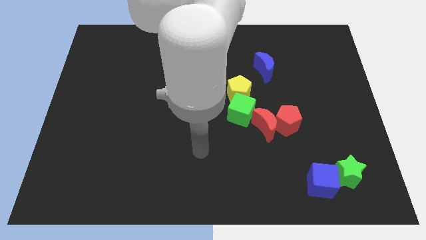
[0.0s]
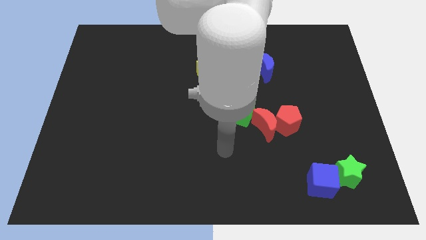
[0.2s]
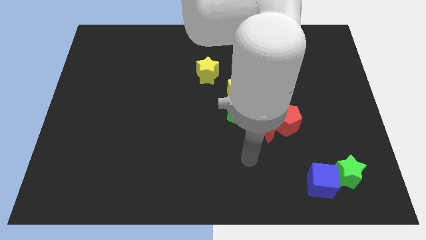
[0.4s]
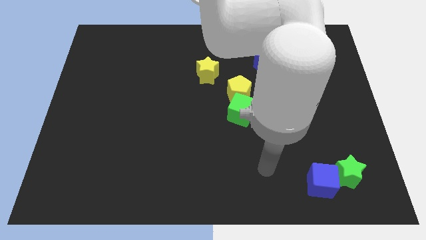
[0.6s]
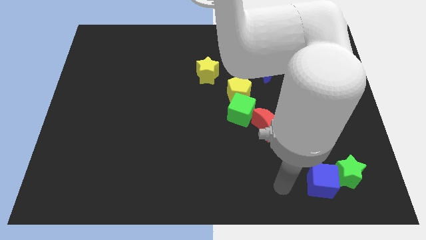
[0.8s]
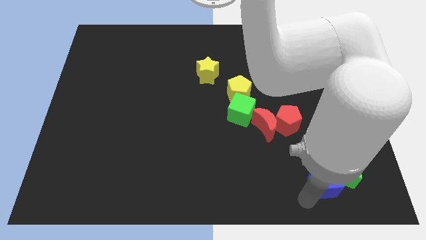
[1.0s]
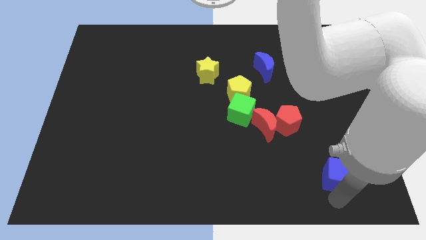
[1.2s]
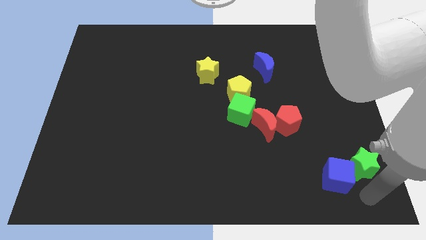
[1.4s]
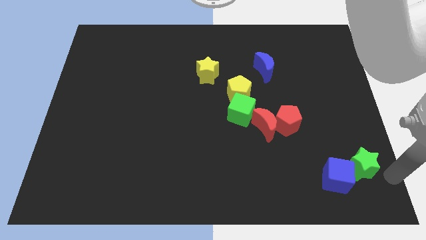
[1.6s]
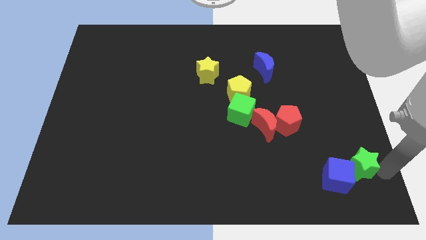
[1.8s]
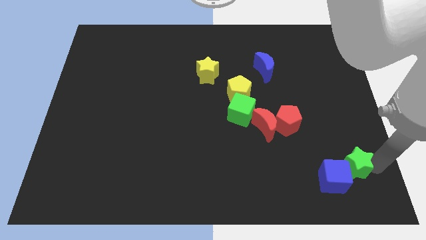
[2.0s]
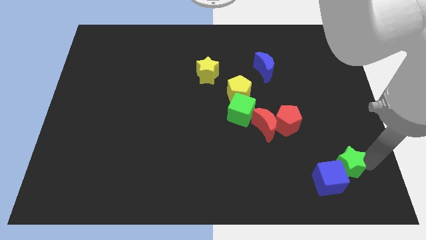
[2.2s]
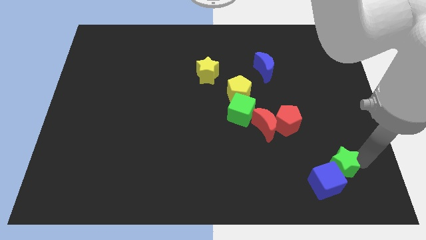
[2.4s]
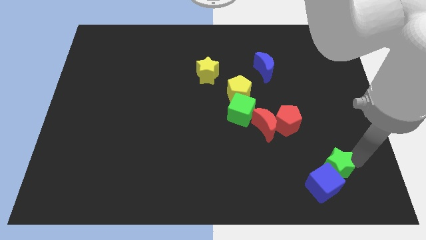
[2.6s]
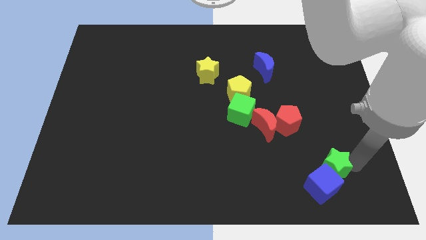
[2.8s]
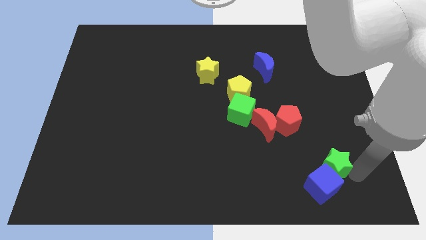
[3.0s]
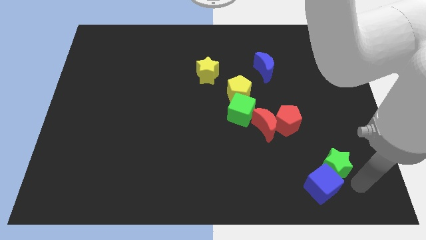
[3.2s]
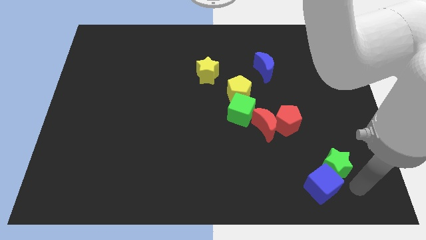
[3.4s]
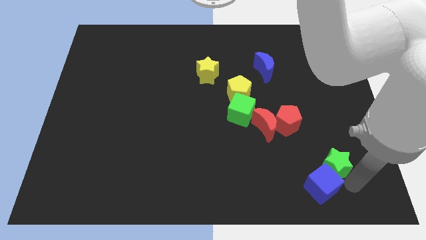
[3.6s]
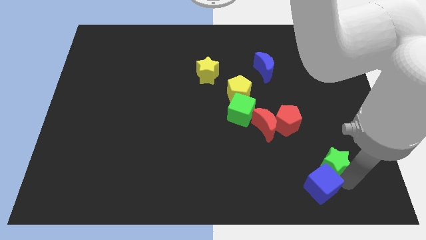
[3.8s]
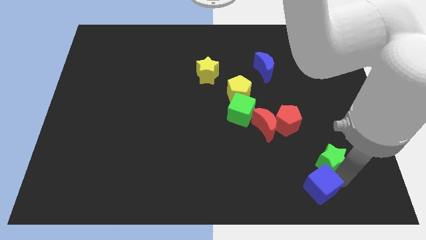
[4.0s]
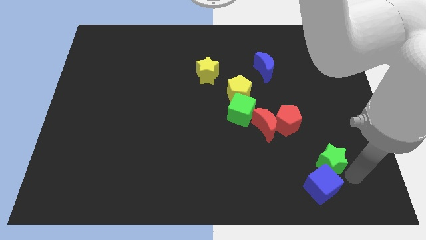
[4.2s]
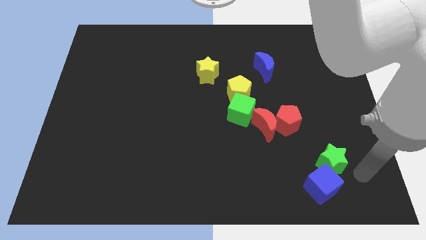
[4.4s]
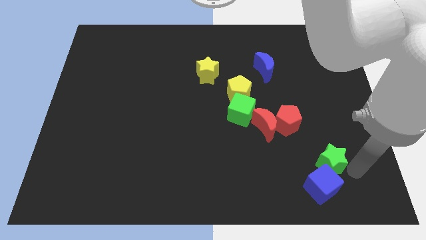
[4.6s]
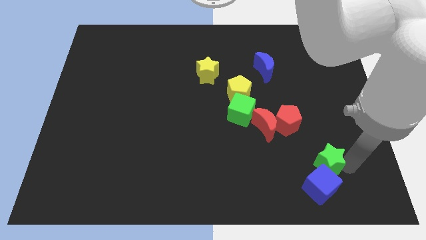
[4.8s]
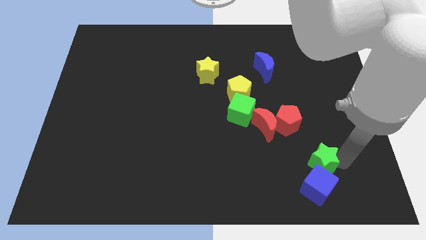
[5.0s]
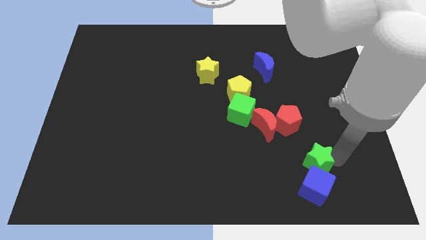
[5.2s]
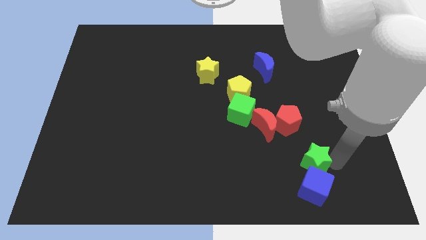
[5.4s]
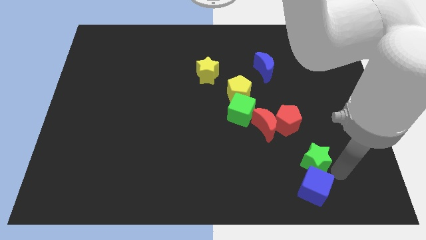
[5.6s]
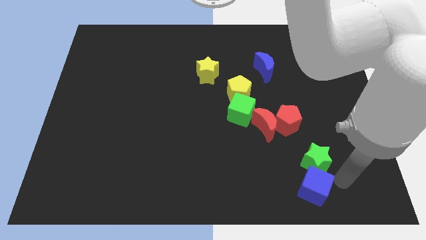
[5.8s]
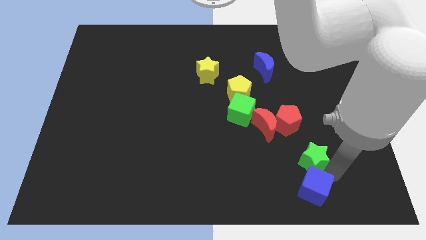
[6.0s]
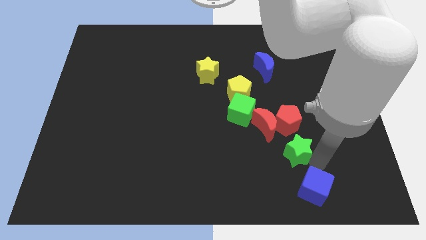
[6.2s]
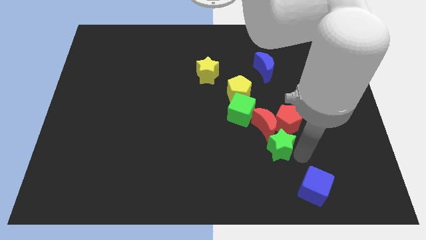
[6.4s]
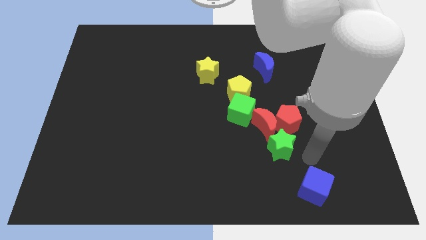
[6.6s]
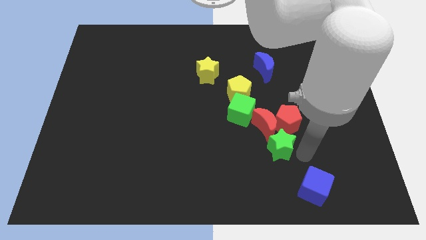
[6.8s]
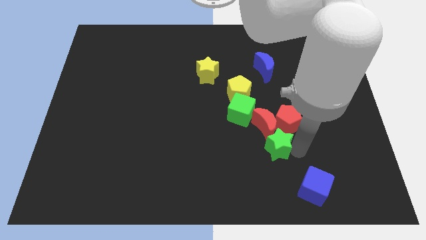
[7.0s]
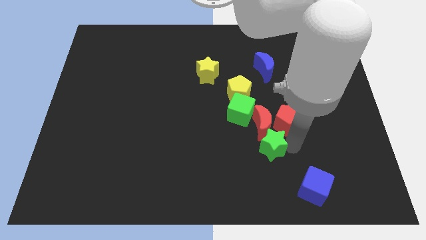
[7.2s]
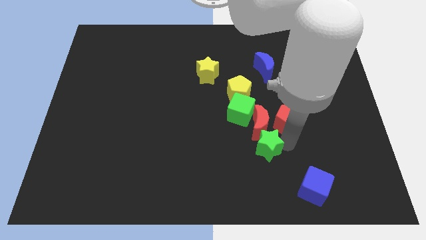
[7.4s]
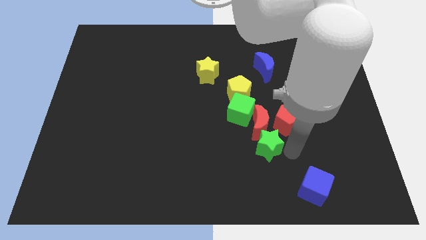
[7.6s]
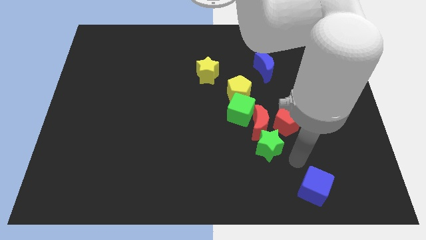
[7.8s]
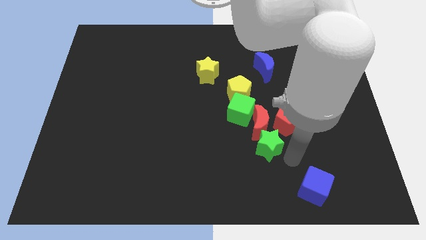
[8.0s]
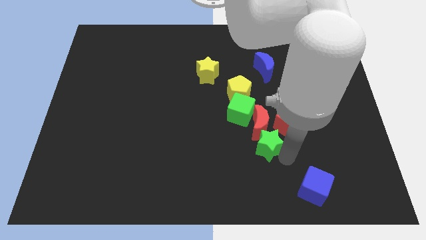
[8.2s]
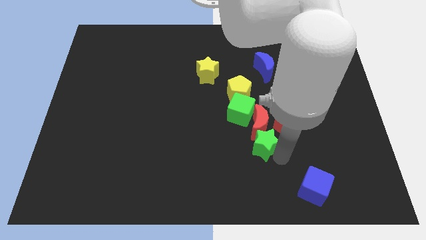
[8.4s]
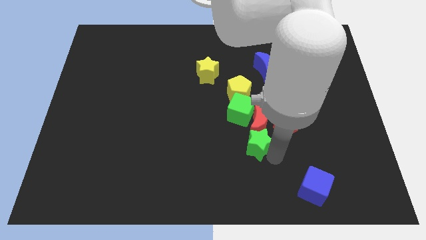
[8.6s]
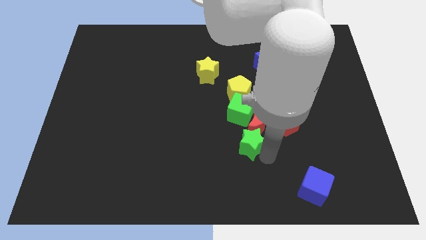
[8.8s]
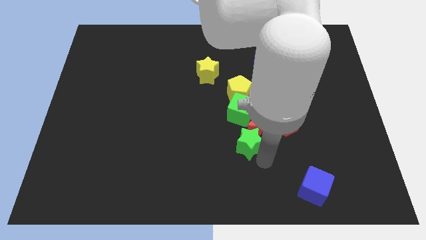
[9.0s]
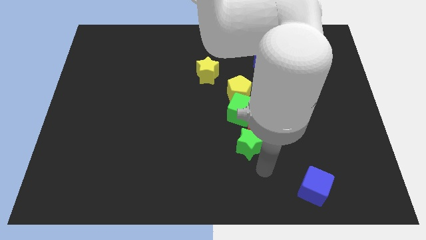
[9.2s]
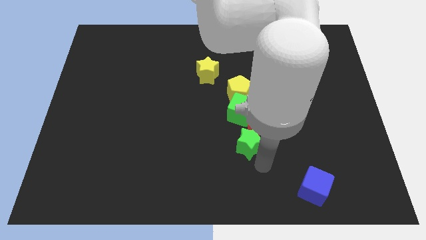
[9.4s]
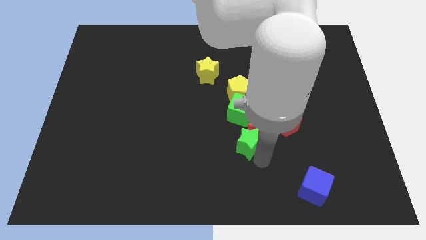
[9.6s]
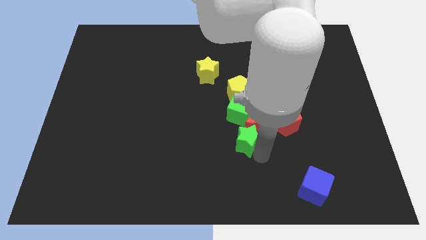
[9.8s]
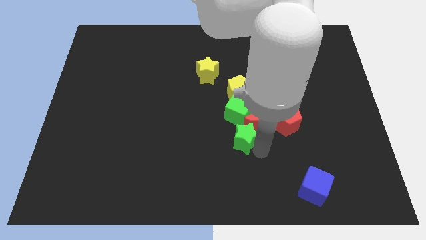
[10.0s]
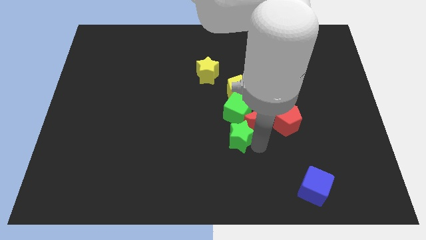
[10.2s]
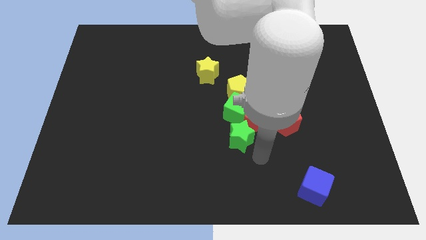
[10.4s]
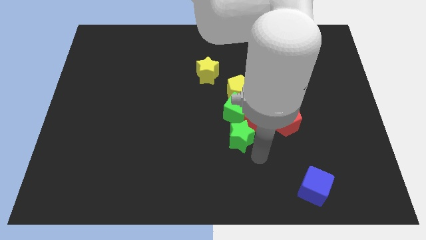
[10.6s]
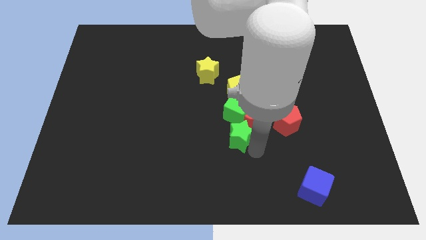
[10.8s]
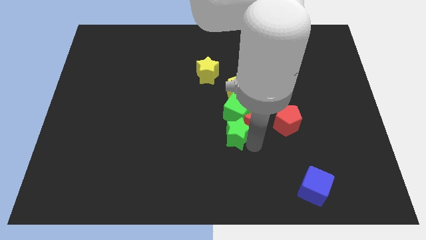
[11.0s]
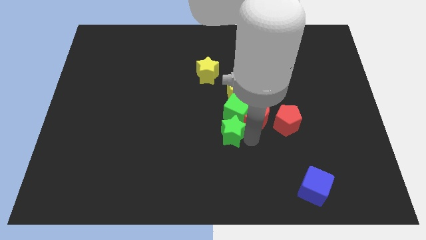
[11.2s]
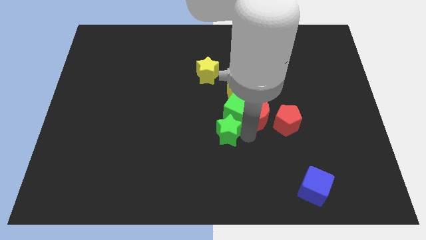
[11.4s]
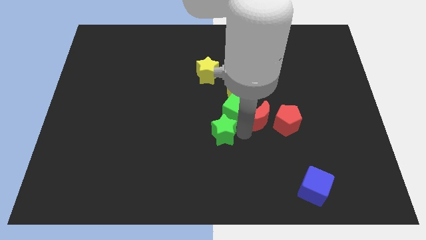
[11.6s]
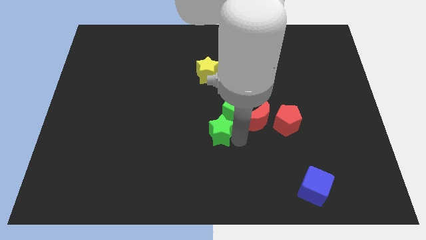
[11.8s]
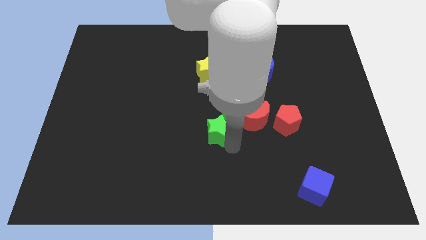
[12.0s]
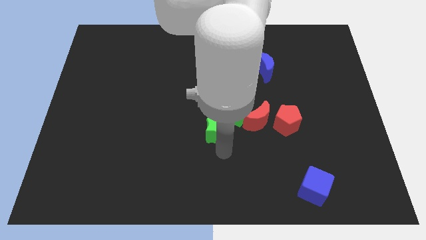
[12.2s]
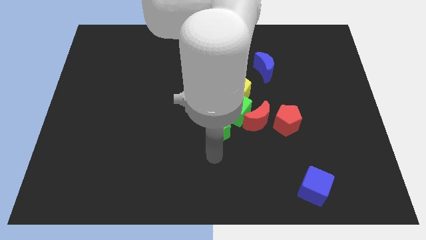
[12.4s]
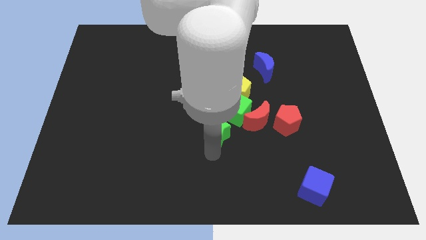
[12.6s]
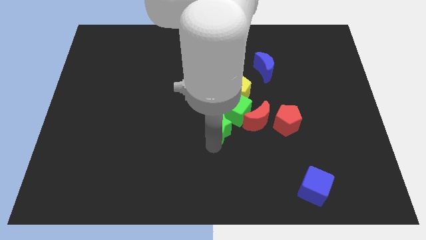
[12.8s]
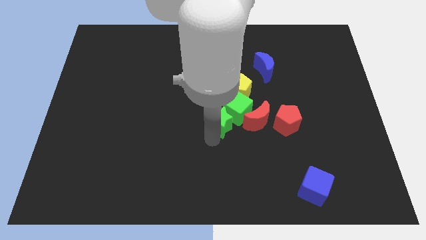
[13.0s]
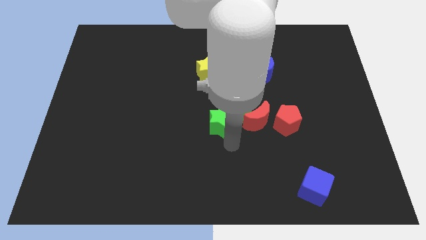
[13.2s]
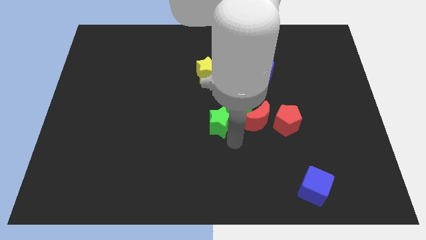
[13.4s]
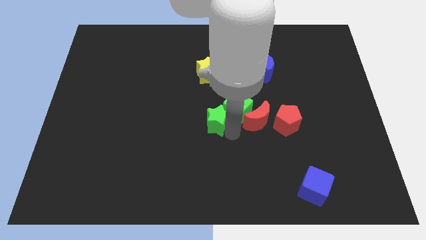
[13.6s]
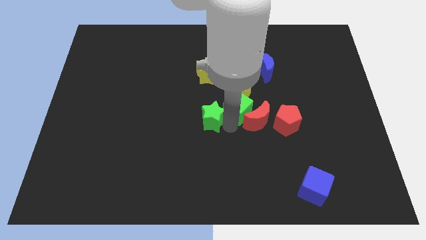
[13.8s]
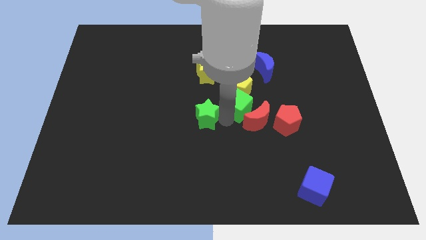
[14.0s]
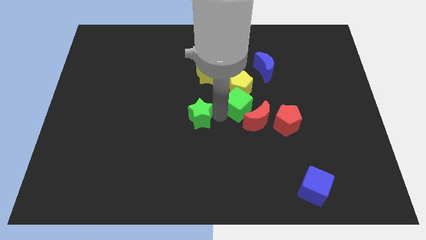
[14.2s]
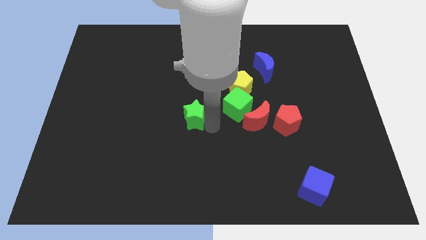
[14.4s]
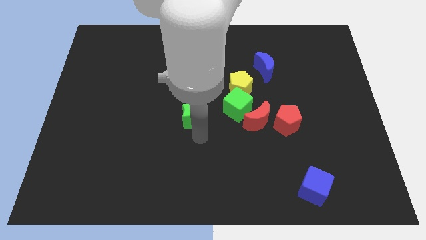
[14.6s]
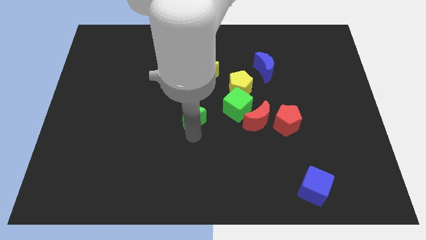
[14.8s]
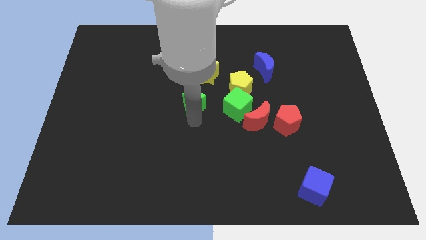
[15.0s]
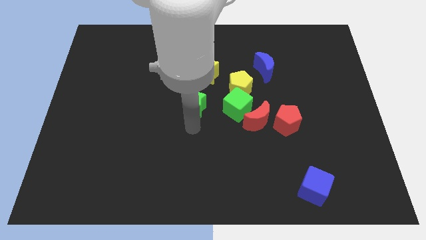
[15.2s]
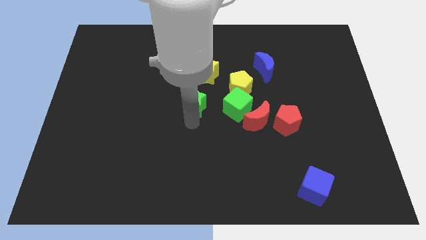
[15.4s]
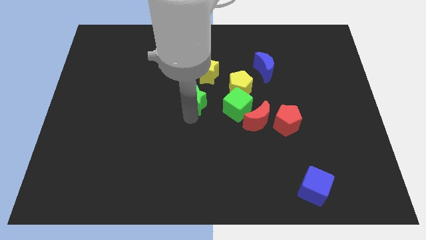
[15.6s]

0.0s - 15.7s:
slide the green star to the left side of the yellow pentagon

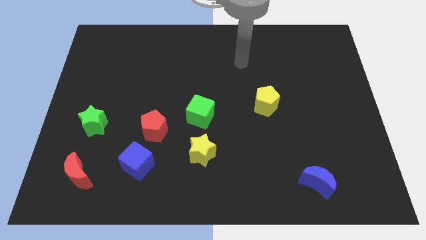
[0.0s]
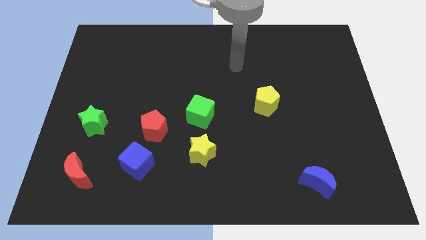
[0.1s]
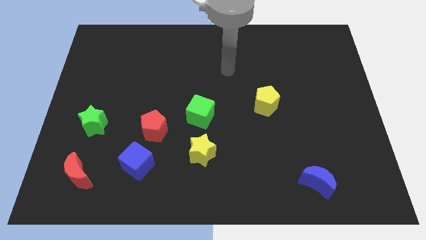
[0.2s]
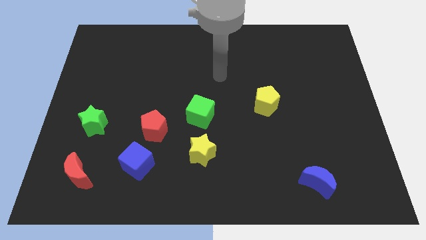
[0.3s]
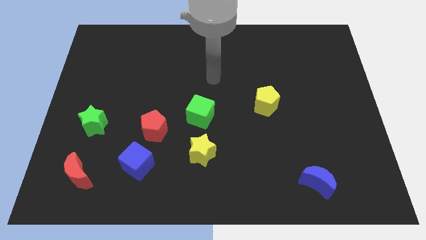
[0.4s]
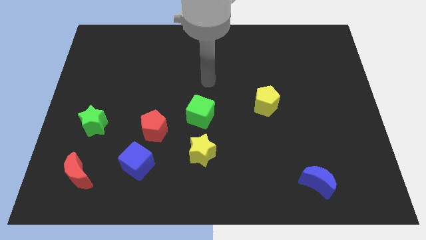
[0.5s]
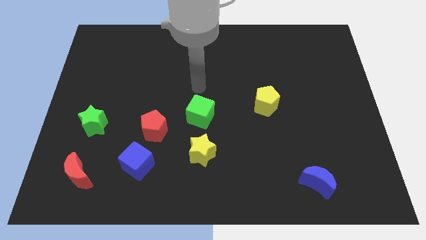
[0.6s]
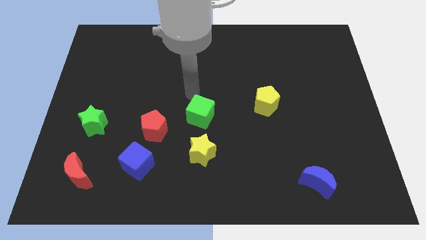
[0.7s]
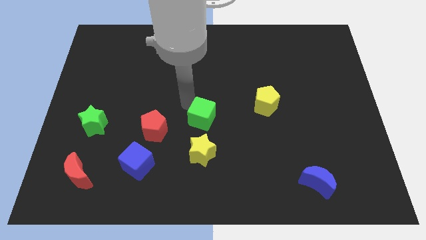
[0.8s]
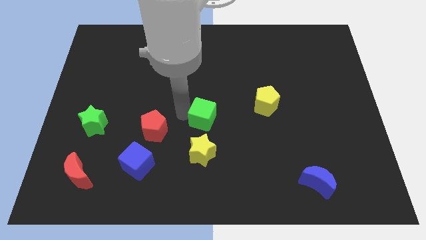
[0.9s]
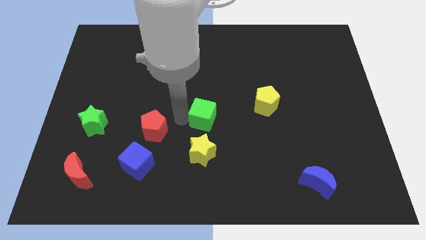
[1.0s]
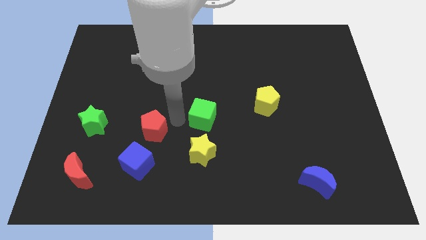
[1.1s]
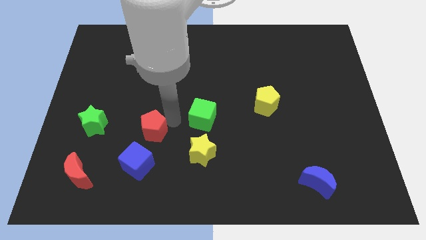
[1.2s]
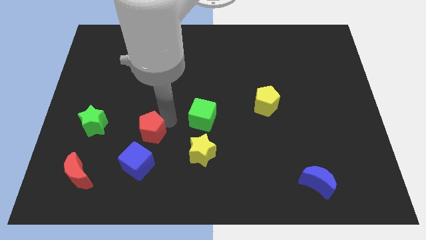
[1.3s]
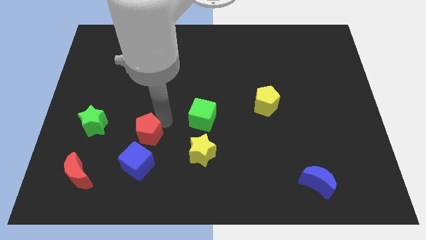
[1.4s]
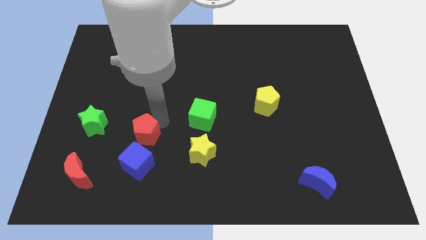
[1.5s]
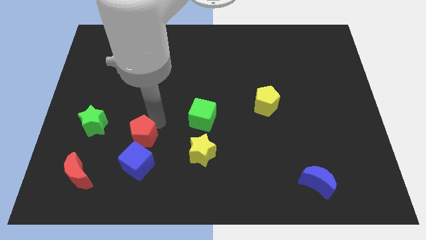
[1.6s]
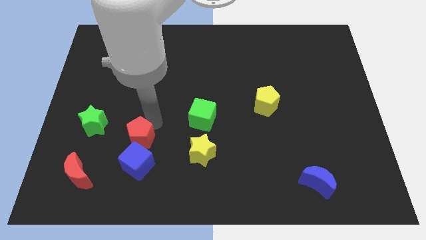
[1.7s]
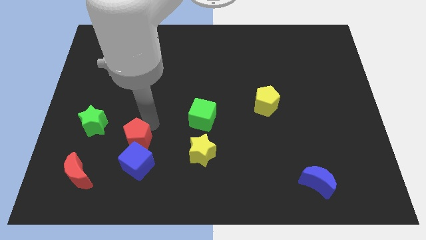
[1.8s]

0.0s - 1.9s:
move the red pentagon to the bottom right side of the green star
